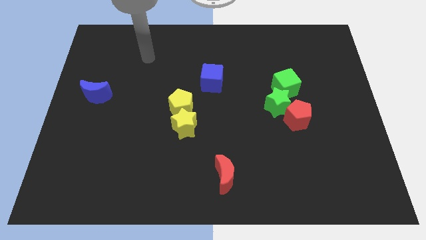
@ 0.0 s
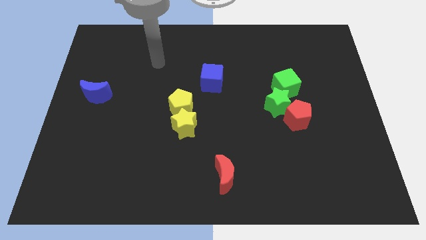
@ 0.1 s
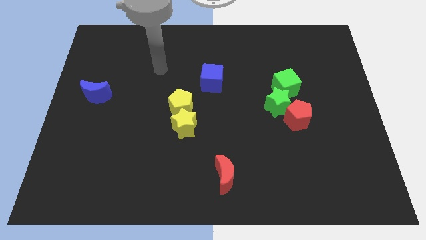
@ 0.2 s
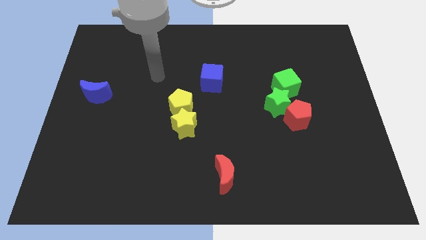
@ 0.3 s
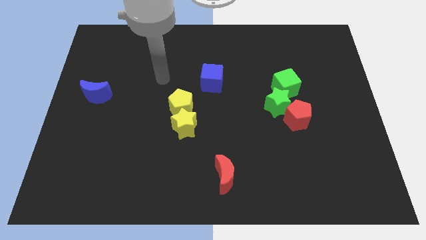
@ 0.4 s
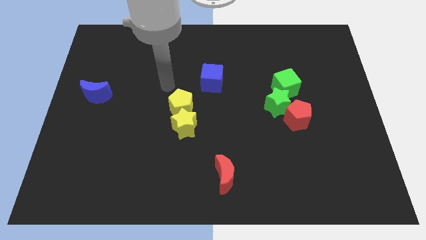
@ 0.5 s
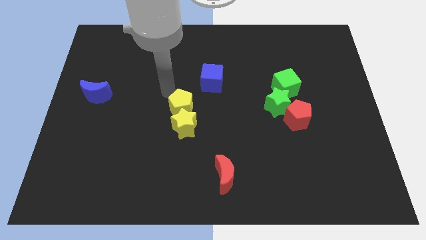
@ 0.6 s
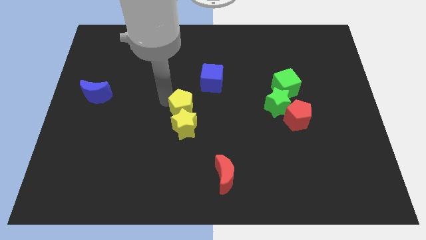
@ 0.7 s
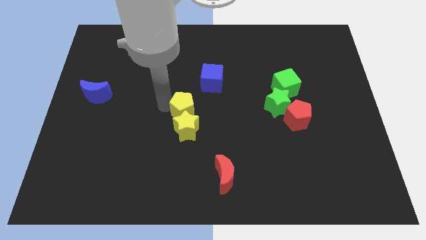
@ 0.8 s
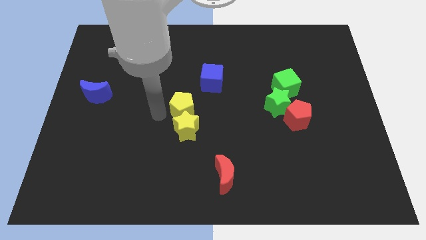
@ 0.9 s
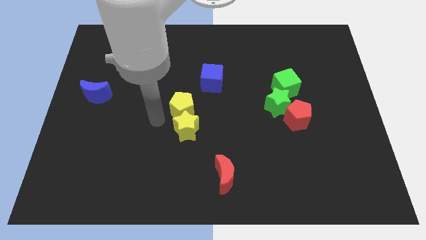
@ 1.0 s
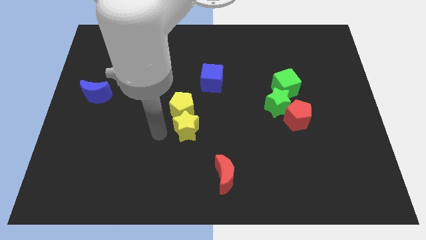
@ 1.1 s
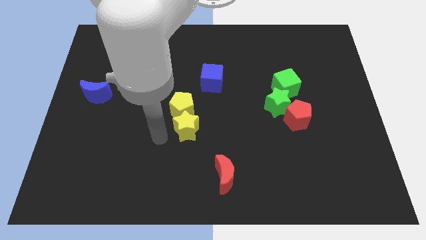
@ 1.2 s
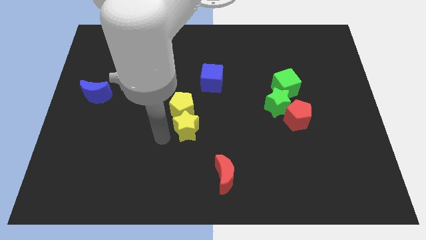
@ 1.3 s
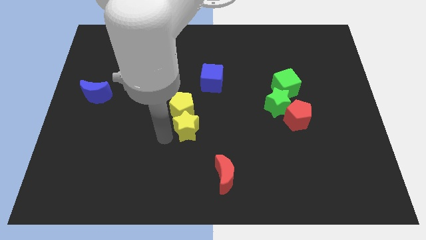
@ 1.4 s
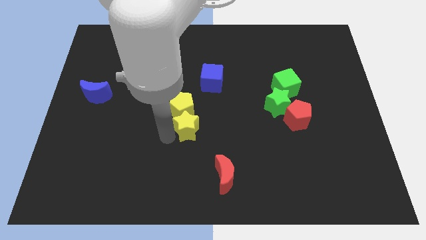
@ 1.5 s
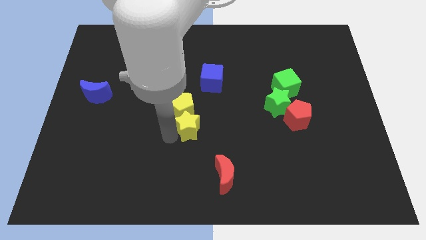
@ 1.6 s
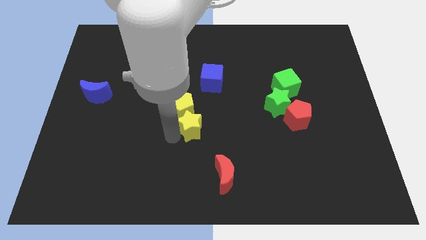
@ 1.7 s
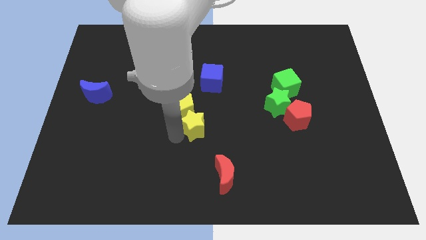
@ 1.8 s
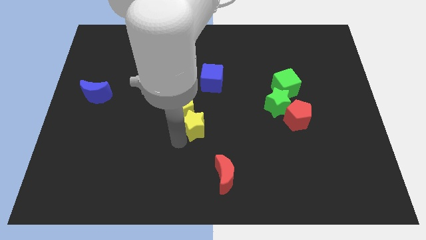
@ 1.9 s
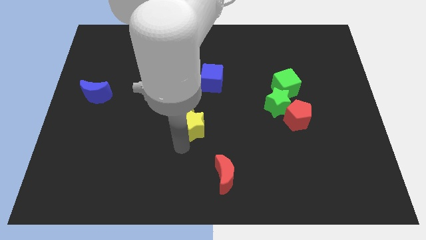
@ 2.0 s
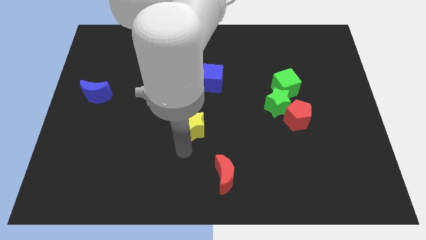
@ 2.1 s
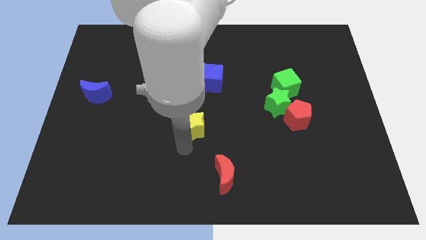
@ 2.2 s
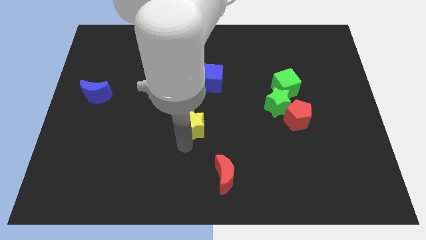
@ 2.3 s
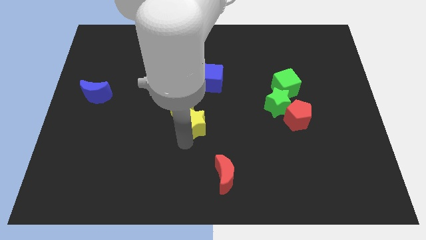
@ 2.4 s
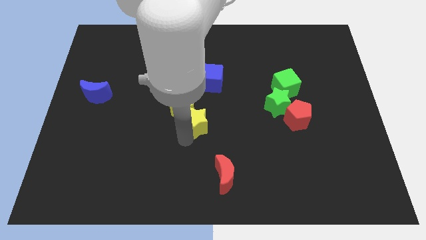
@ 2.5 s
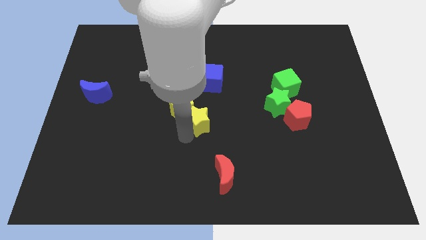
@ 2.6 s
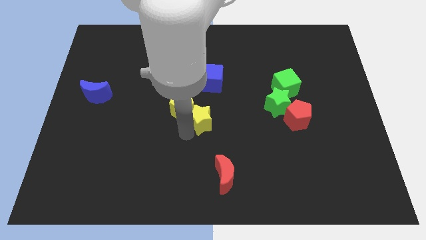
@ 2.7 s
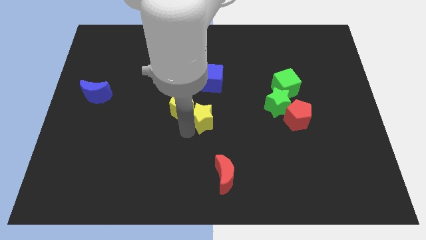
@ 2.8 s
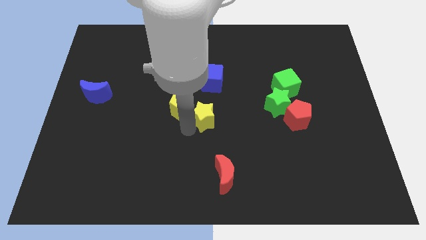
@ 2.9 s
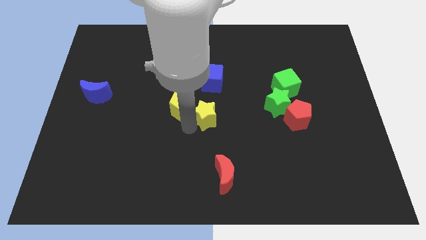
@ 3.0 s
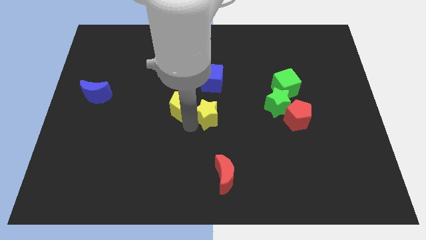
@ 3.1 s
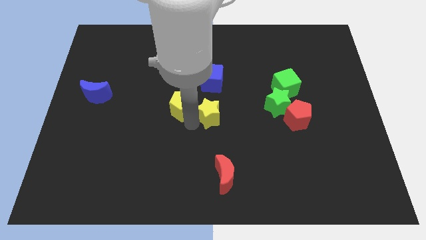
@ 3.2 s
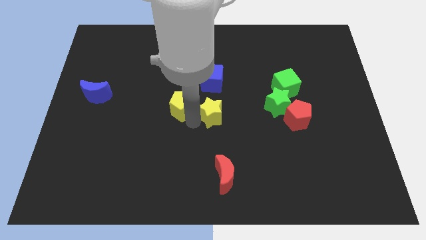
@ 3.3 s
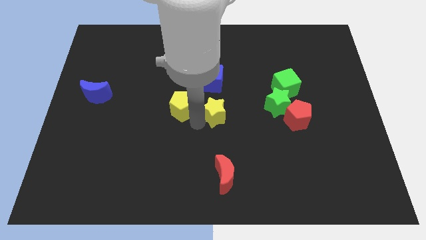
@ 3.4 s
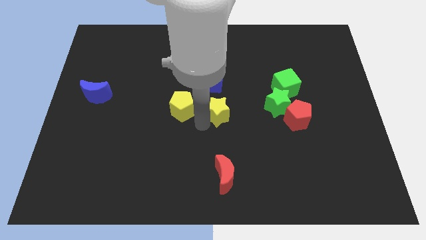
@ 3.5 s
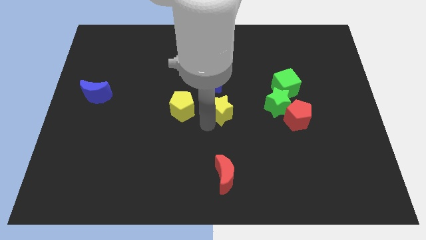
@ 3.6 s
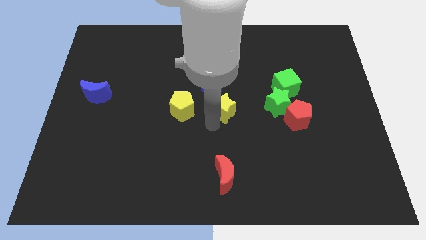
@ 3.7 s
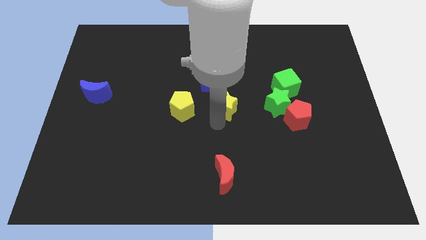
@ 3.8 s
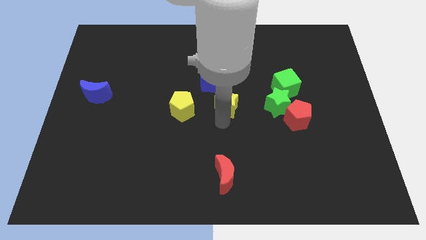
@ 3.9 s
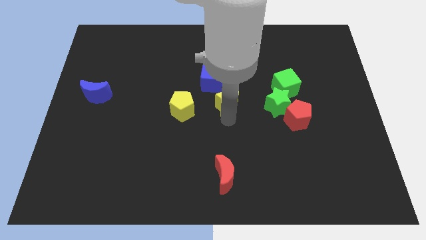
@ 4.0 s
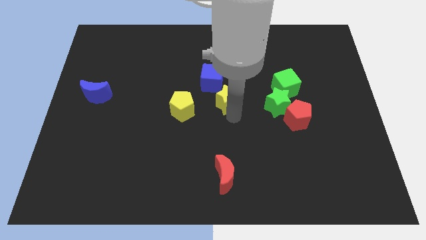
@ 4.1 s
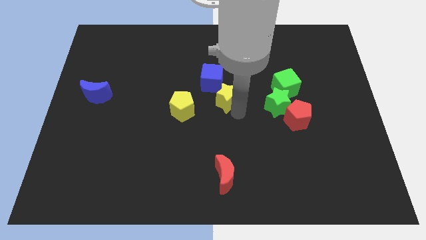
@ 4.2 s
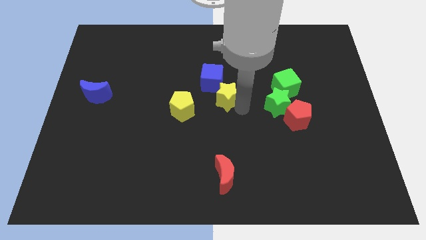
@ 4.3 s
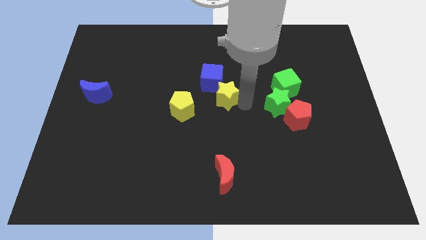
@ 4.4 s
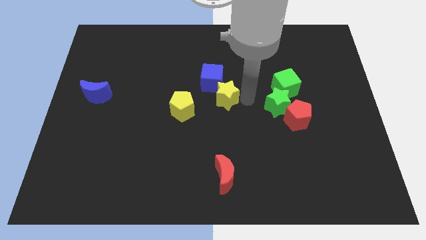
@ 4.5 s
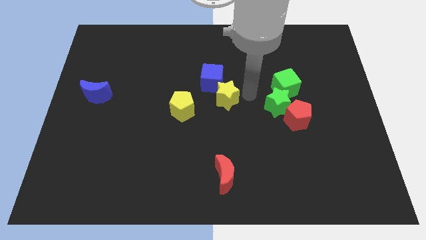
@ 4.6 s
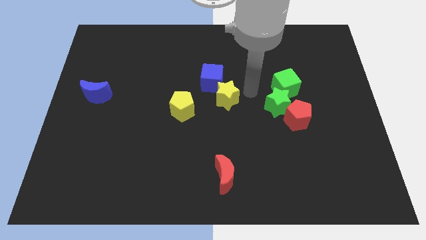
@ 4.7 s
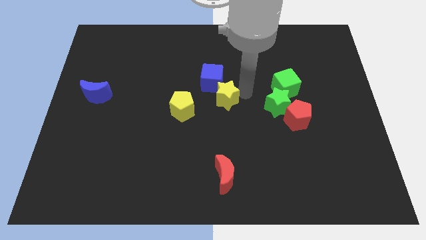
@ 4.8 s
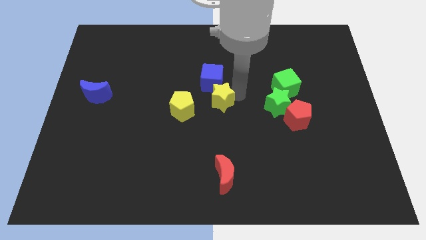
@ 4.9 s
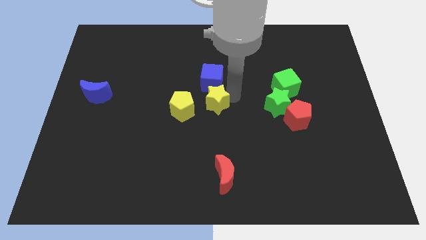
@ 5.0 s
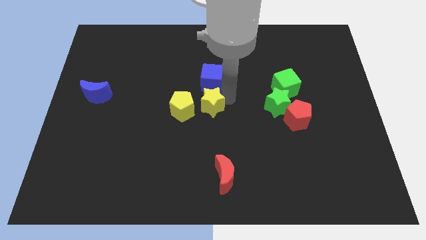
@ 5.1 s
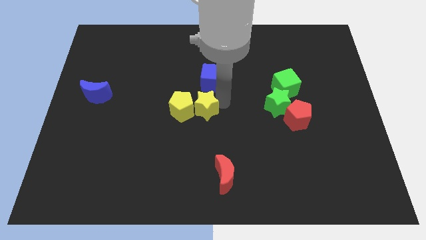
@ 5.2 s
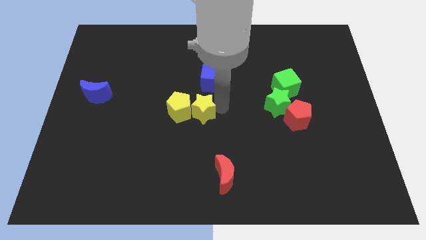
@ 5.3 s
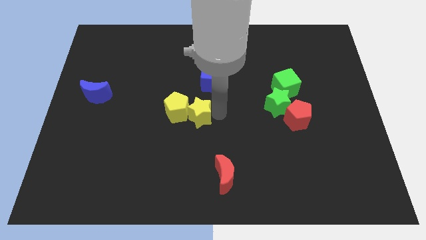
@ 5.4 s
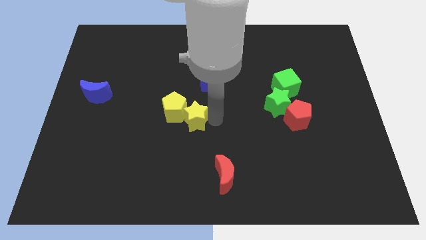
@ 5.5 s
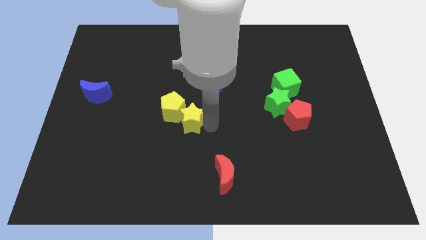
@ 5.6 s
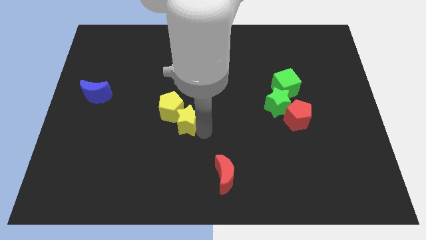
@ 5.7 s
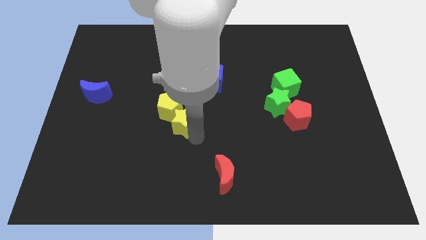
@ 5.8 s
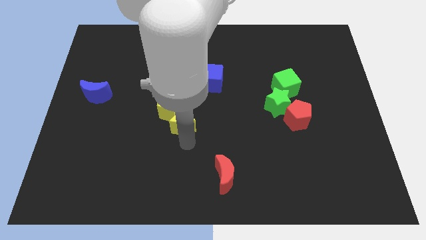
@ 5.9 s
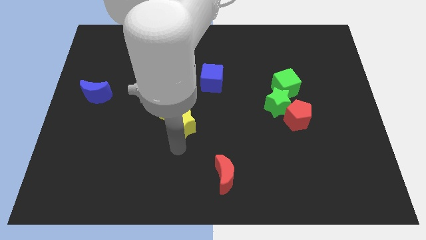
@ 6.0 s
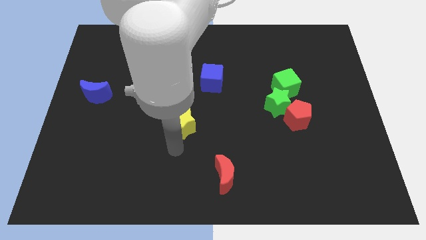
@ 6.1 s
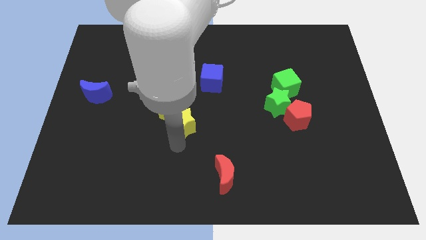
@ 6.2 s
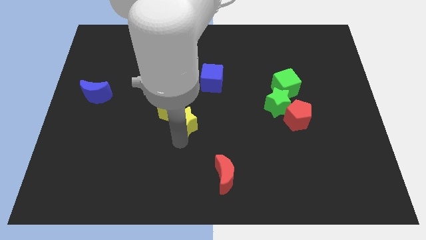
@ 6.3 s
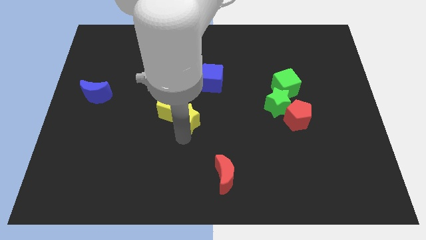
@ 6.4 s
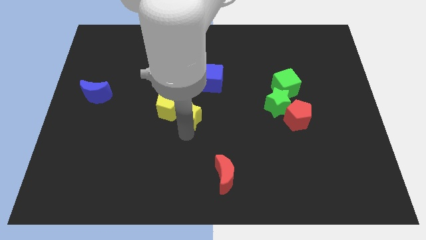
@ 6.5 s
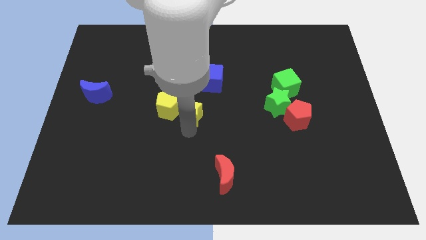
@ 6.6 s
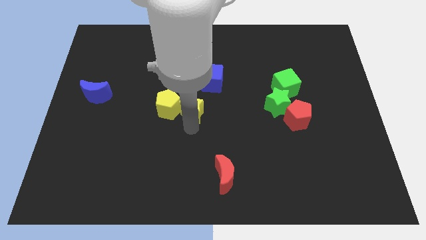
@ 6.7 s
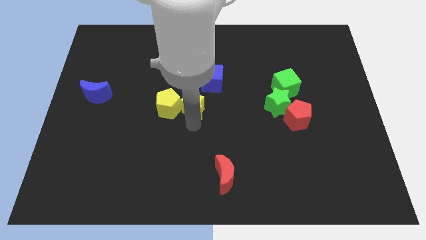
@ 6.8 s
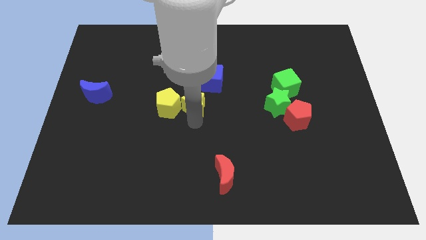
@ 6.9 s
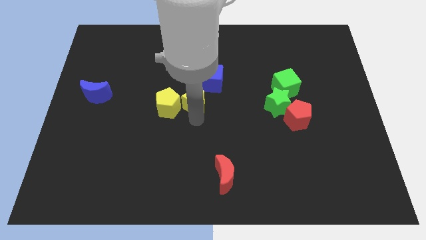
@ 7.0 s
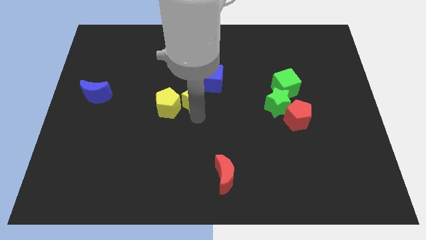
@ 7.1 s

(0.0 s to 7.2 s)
slide the yellow star somewhat upwards

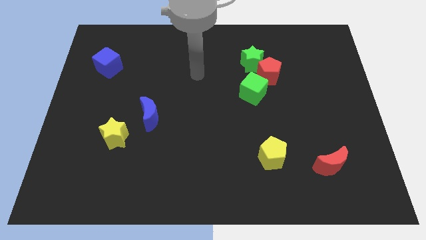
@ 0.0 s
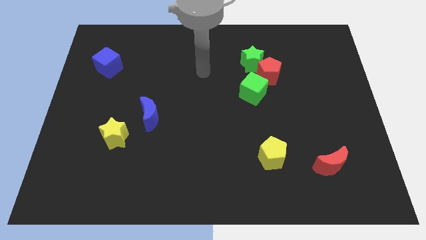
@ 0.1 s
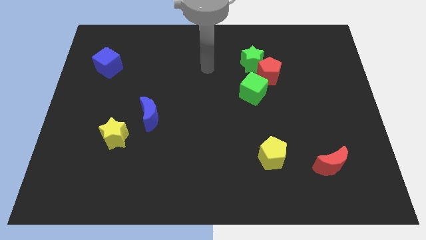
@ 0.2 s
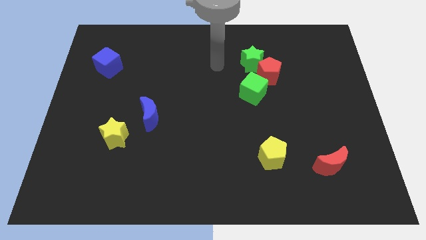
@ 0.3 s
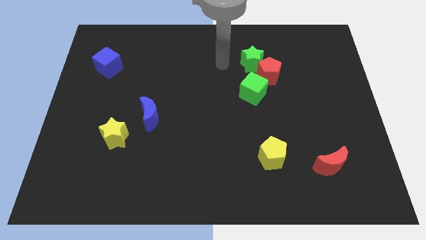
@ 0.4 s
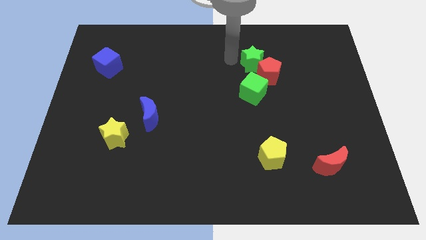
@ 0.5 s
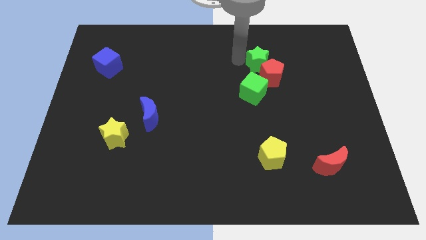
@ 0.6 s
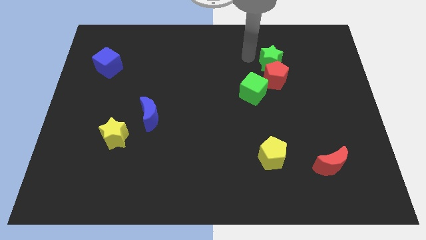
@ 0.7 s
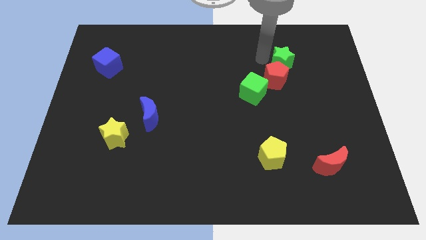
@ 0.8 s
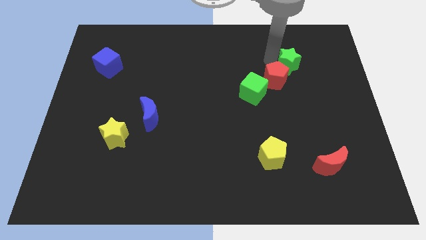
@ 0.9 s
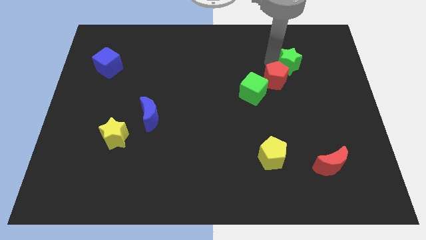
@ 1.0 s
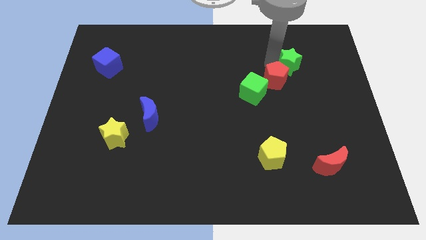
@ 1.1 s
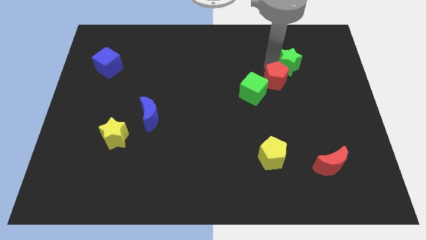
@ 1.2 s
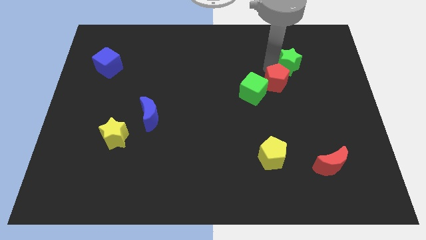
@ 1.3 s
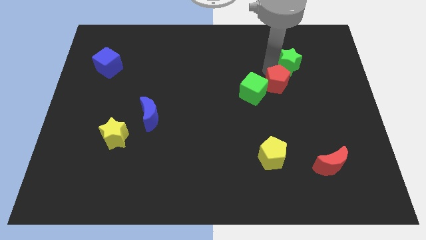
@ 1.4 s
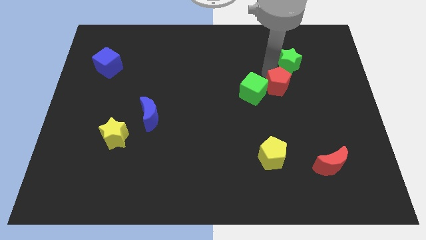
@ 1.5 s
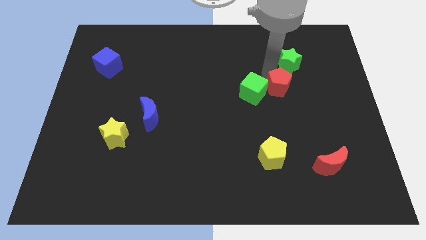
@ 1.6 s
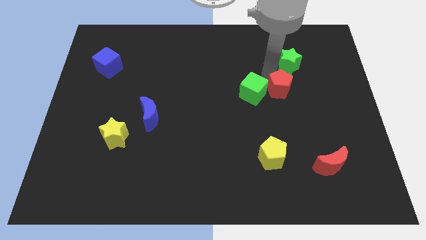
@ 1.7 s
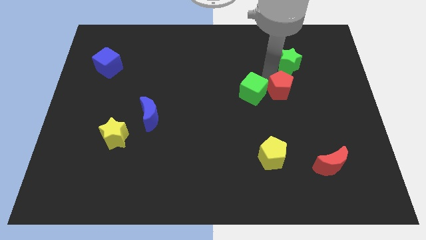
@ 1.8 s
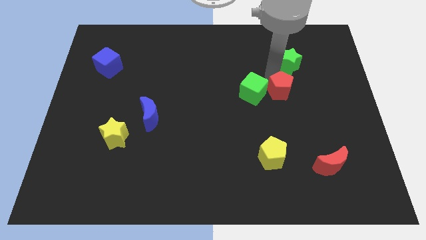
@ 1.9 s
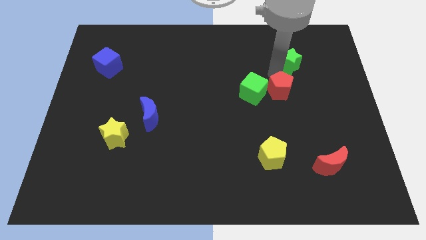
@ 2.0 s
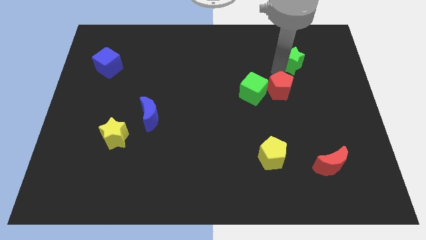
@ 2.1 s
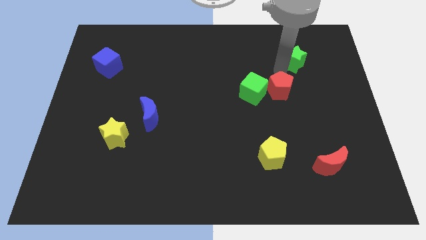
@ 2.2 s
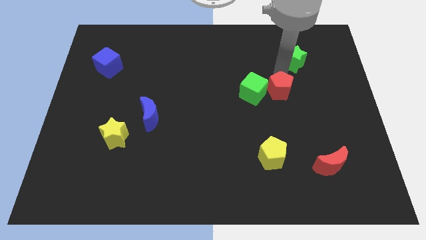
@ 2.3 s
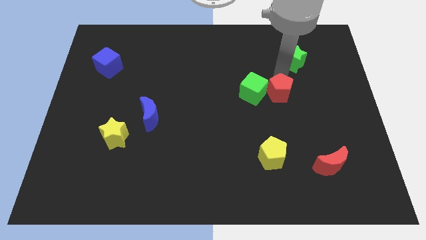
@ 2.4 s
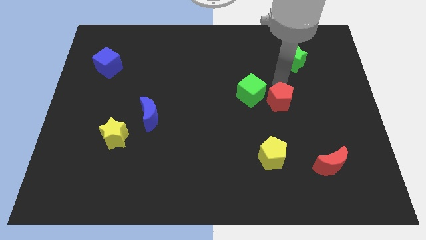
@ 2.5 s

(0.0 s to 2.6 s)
slightly move the red pentagon downwards
